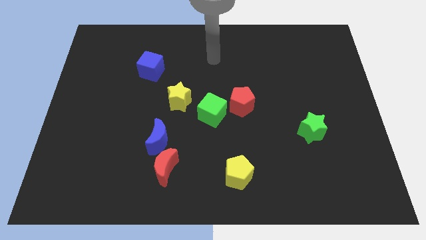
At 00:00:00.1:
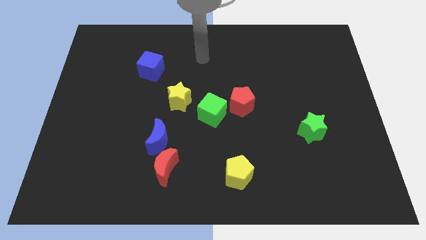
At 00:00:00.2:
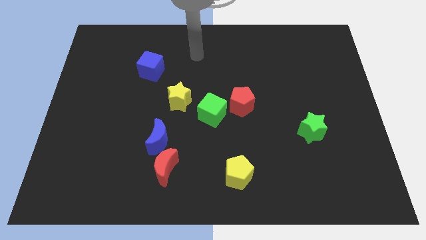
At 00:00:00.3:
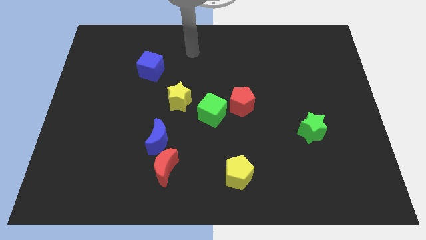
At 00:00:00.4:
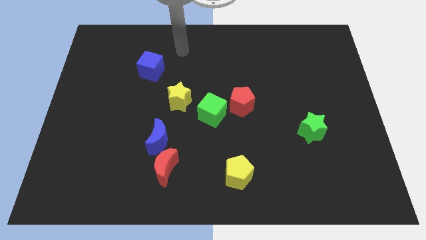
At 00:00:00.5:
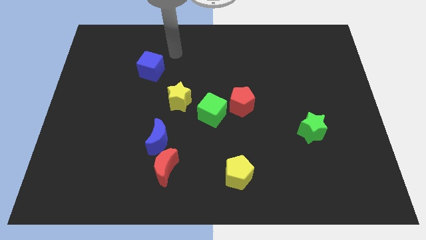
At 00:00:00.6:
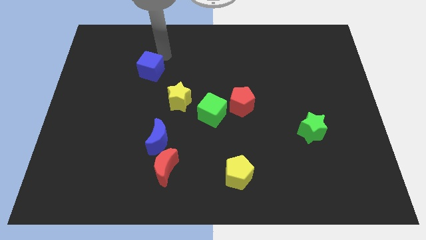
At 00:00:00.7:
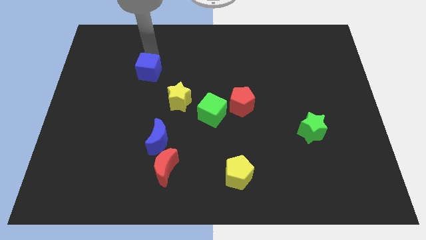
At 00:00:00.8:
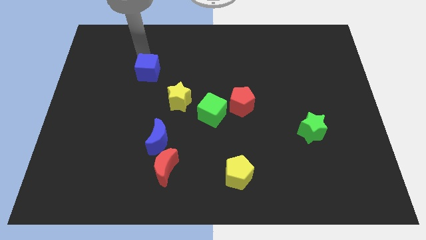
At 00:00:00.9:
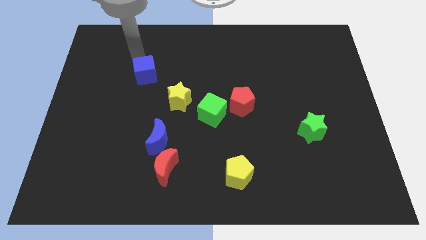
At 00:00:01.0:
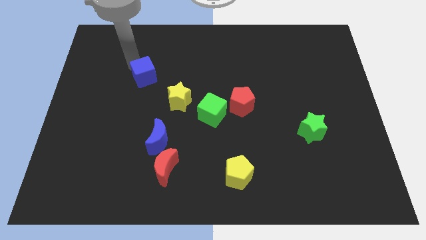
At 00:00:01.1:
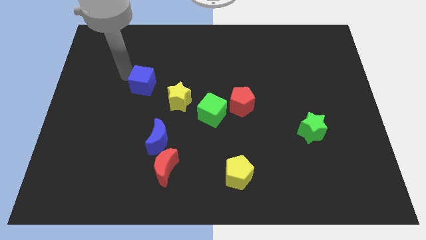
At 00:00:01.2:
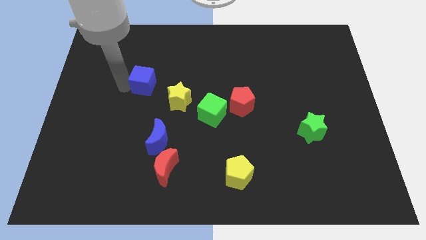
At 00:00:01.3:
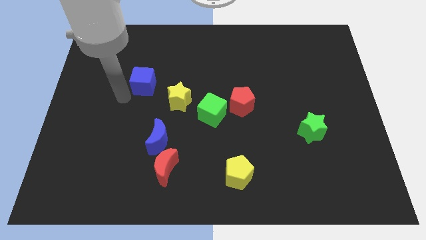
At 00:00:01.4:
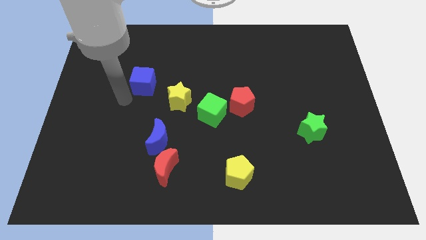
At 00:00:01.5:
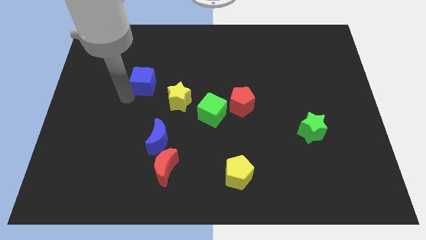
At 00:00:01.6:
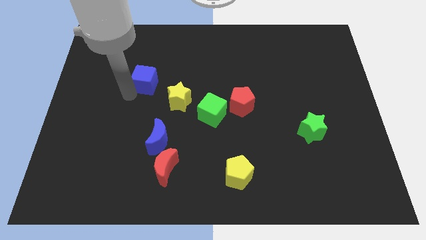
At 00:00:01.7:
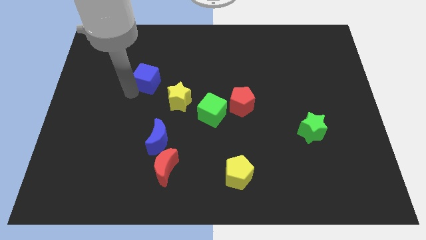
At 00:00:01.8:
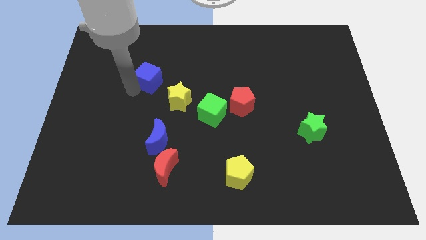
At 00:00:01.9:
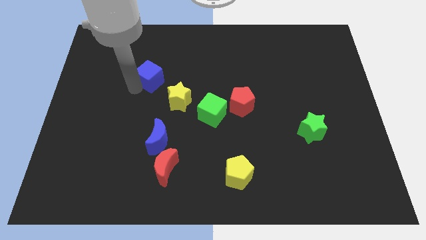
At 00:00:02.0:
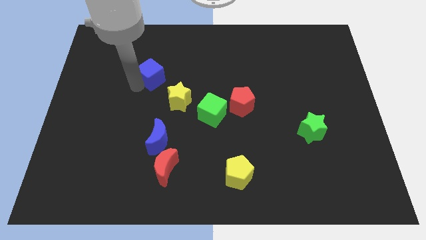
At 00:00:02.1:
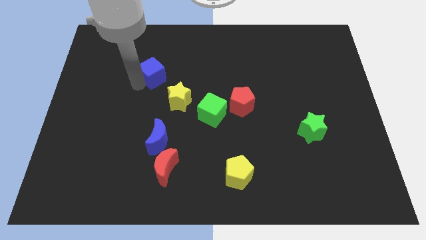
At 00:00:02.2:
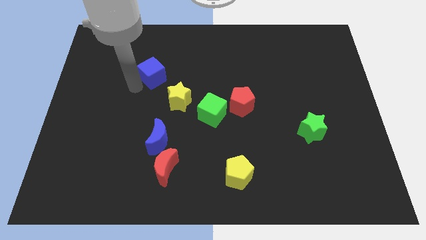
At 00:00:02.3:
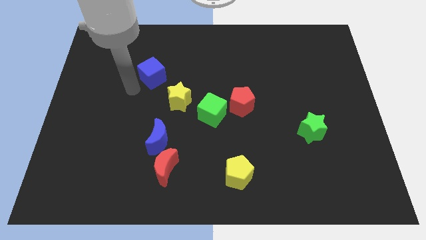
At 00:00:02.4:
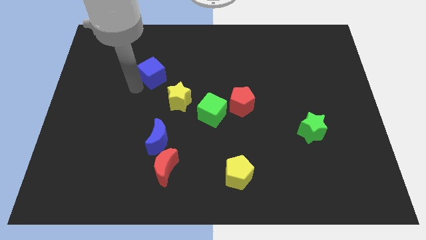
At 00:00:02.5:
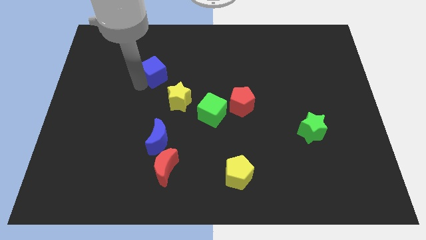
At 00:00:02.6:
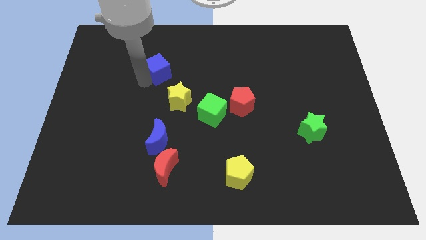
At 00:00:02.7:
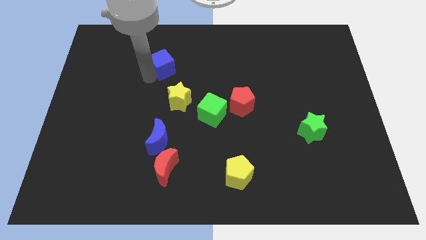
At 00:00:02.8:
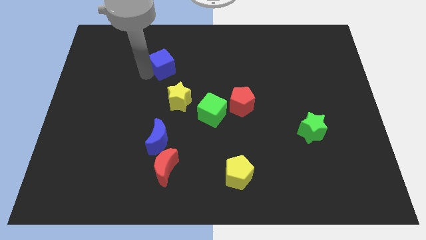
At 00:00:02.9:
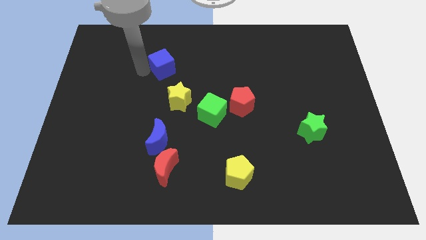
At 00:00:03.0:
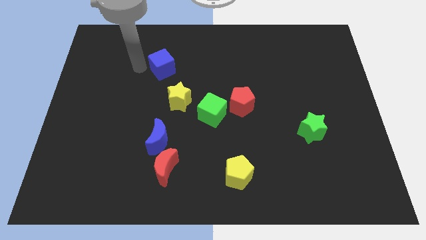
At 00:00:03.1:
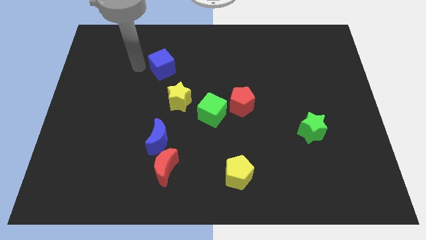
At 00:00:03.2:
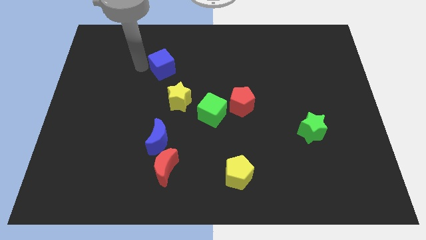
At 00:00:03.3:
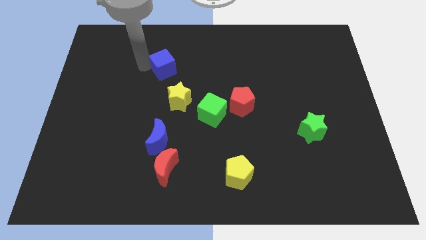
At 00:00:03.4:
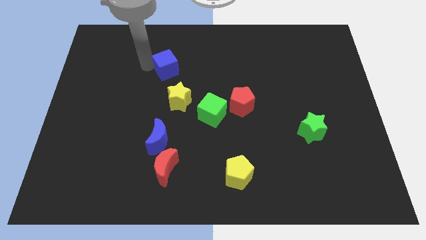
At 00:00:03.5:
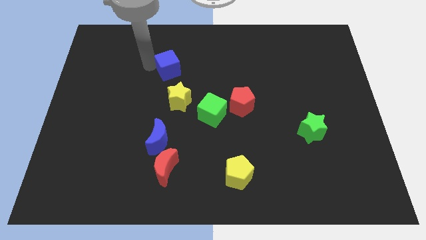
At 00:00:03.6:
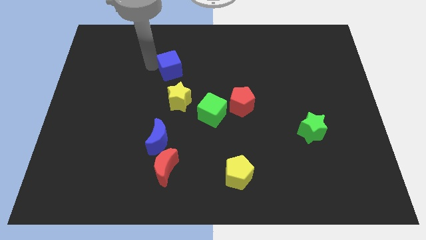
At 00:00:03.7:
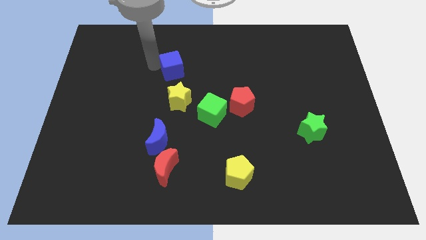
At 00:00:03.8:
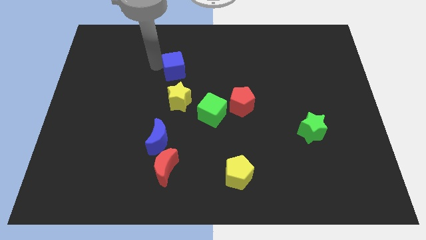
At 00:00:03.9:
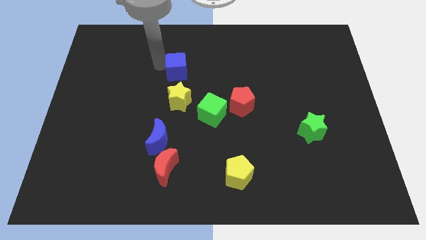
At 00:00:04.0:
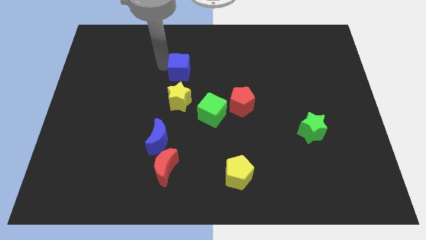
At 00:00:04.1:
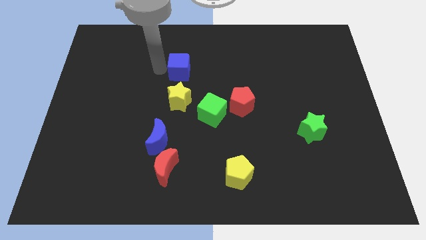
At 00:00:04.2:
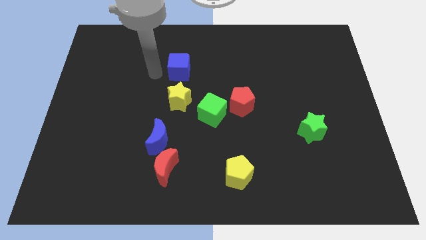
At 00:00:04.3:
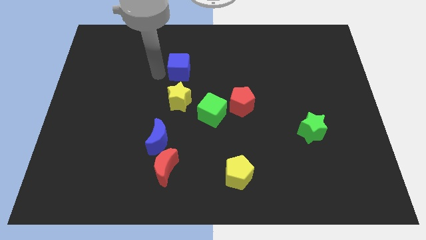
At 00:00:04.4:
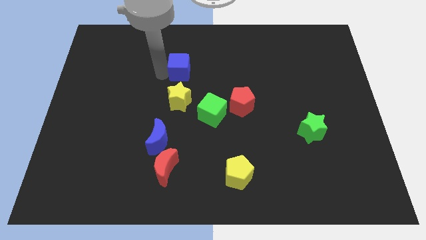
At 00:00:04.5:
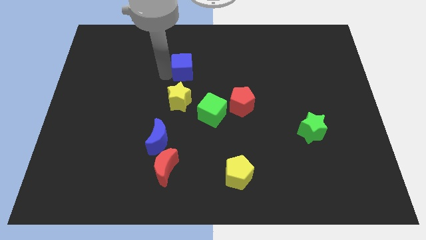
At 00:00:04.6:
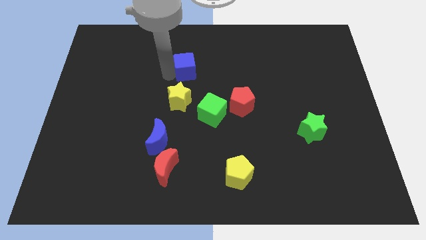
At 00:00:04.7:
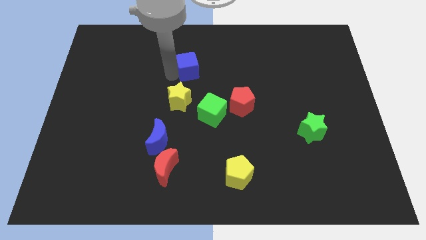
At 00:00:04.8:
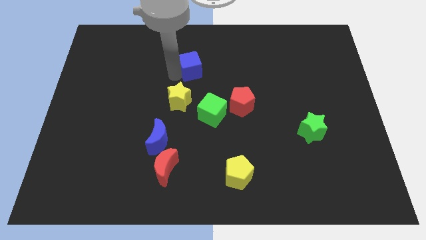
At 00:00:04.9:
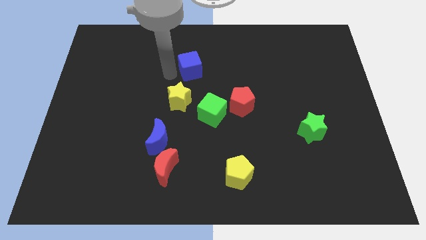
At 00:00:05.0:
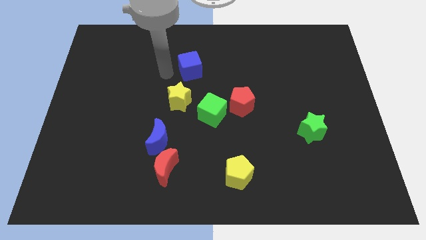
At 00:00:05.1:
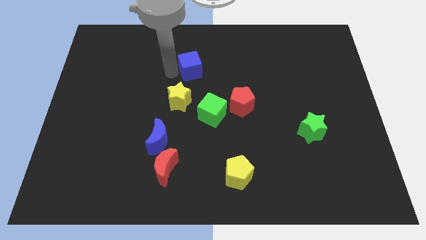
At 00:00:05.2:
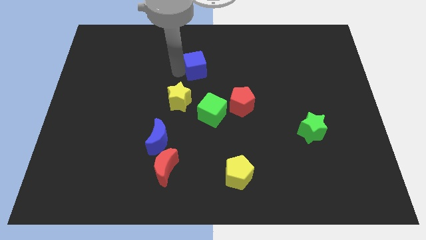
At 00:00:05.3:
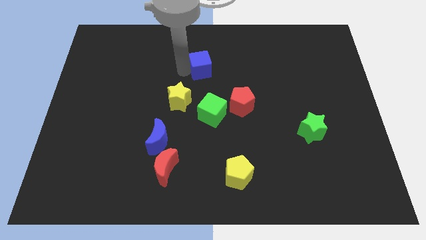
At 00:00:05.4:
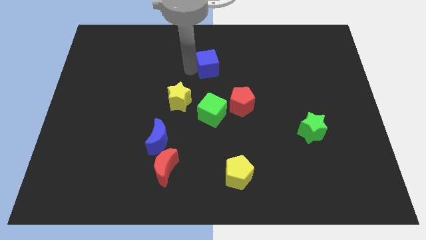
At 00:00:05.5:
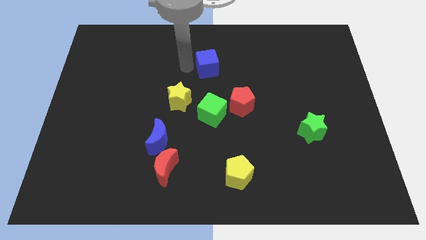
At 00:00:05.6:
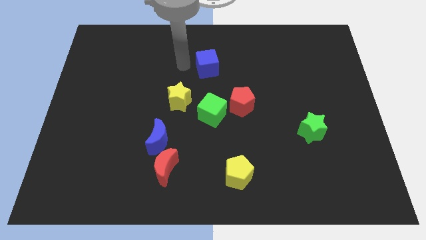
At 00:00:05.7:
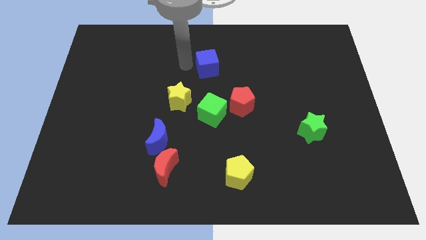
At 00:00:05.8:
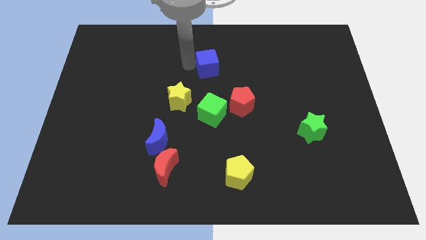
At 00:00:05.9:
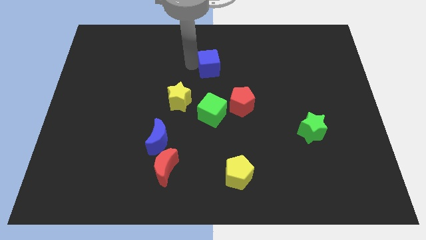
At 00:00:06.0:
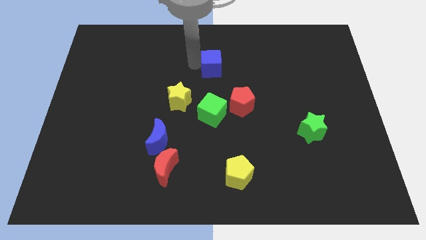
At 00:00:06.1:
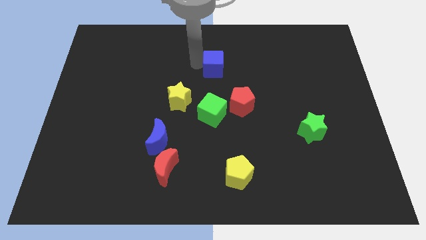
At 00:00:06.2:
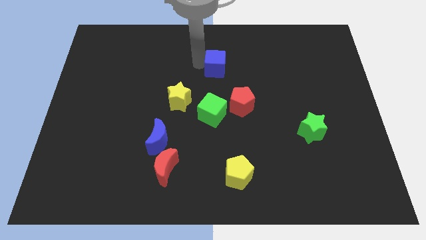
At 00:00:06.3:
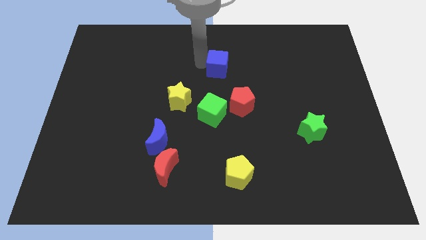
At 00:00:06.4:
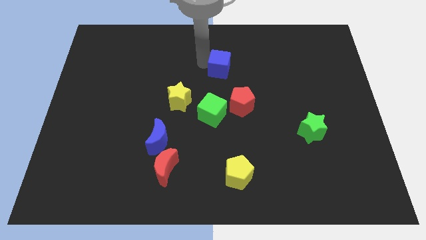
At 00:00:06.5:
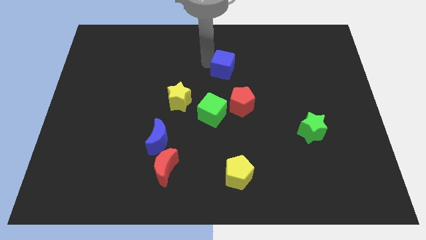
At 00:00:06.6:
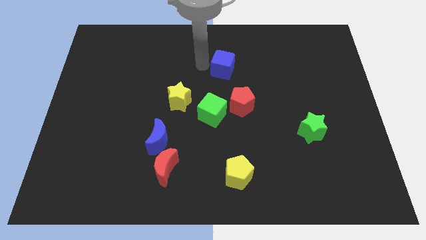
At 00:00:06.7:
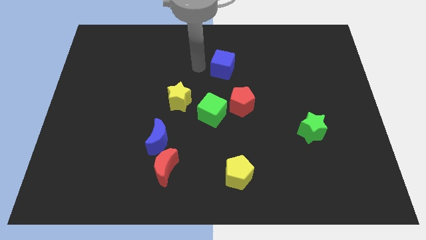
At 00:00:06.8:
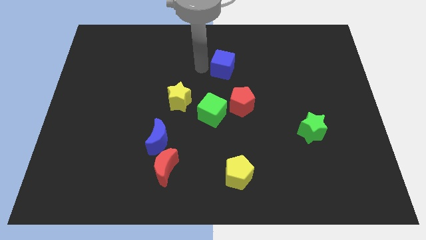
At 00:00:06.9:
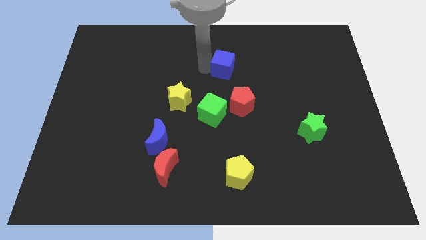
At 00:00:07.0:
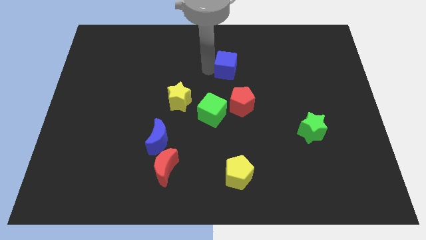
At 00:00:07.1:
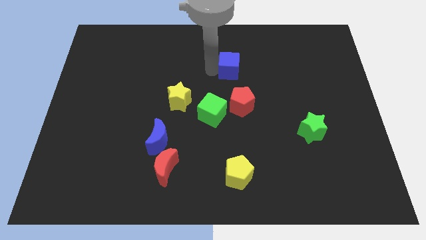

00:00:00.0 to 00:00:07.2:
slide the blue cube to the right

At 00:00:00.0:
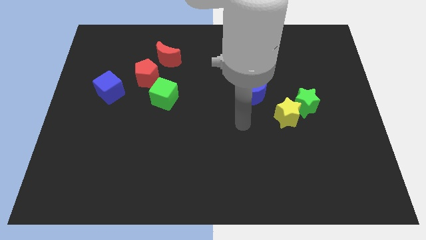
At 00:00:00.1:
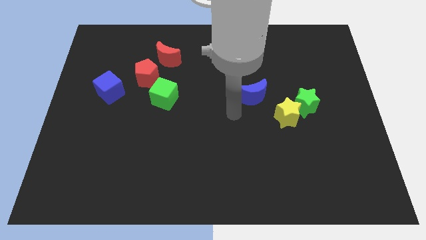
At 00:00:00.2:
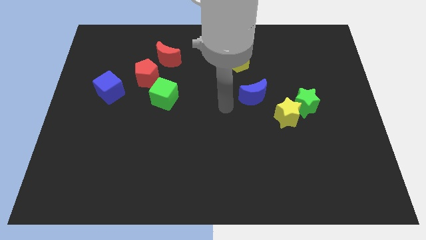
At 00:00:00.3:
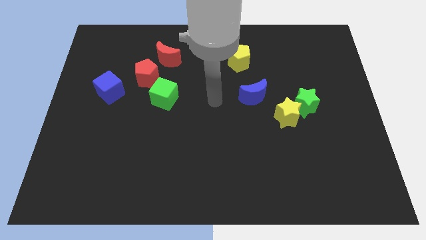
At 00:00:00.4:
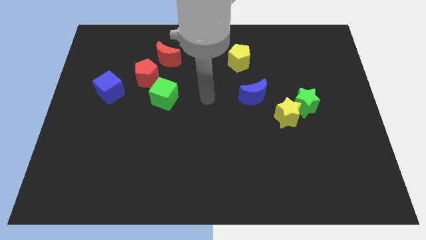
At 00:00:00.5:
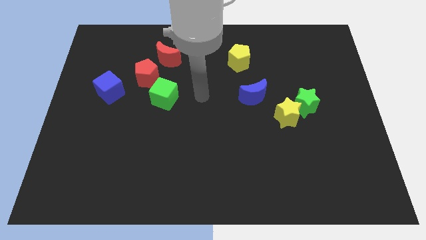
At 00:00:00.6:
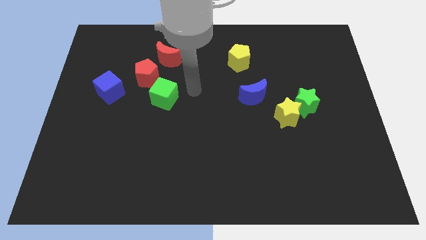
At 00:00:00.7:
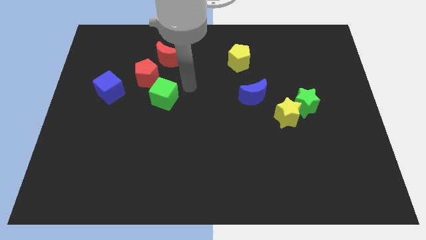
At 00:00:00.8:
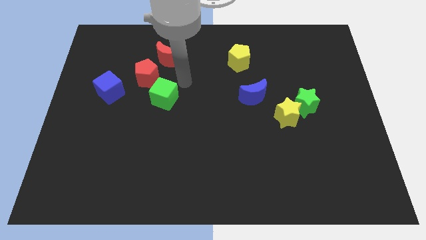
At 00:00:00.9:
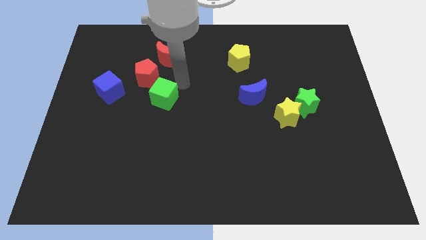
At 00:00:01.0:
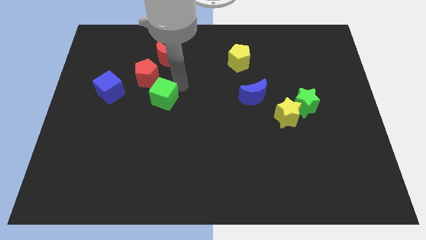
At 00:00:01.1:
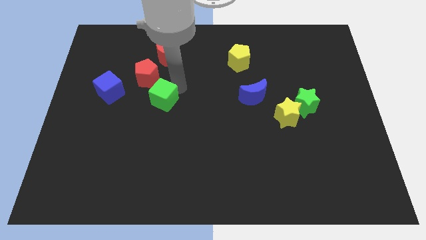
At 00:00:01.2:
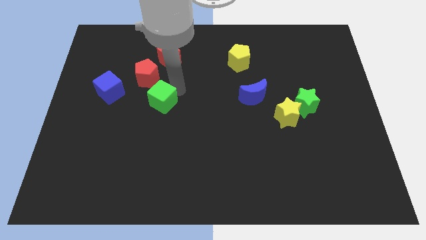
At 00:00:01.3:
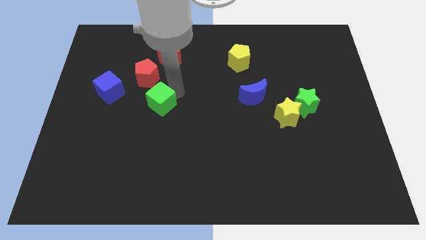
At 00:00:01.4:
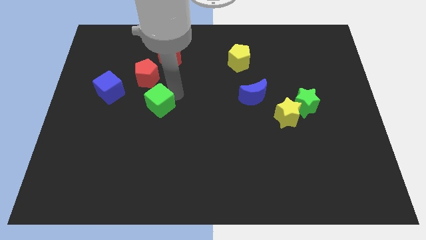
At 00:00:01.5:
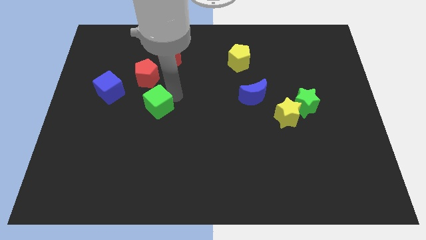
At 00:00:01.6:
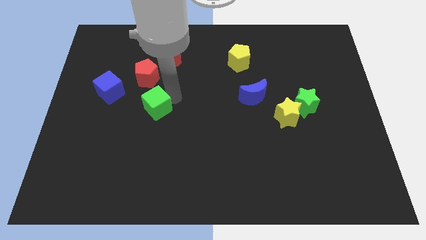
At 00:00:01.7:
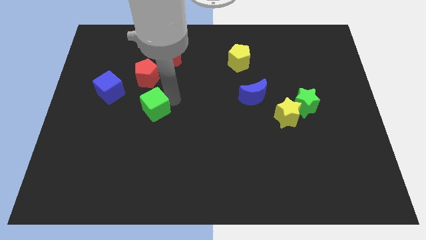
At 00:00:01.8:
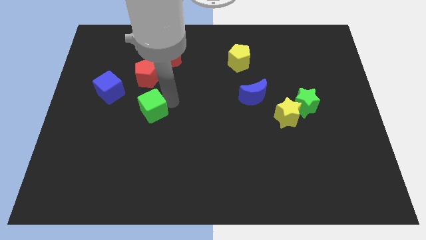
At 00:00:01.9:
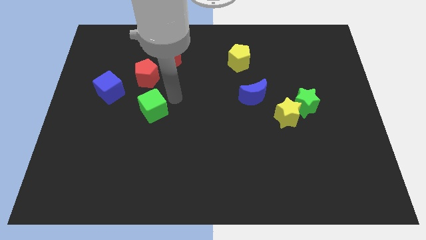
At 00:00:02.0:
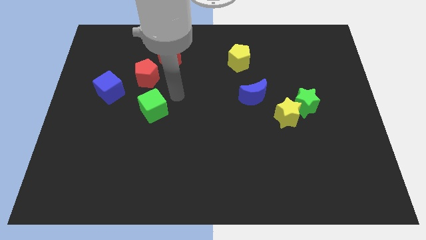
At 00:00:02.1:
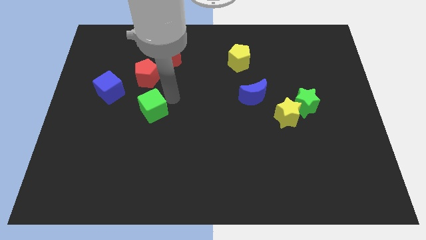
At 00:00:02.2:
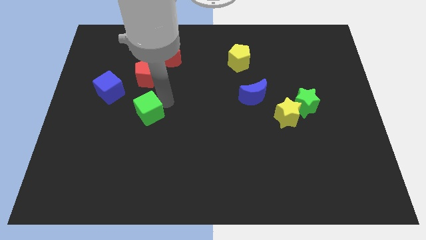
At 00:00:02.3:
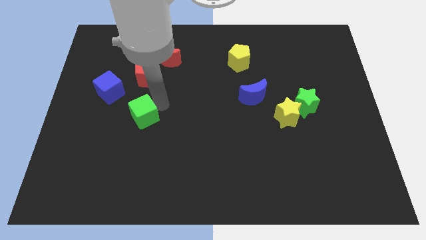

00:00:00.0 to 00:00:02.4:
slightly move the green cube diagonally downwards and left
